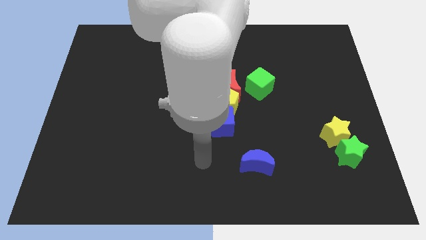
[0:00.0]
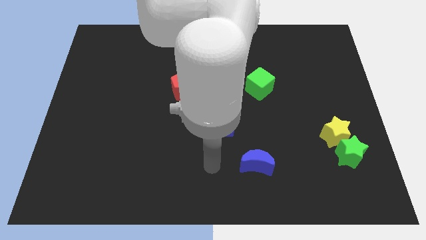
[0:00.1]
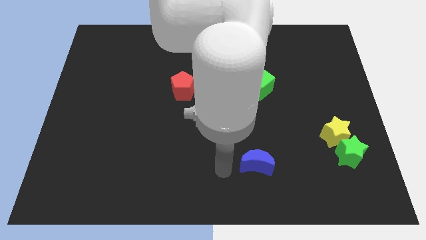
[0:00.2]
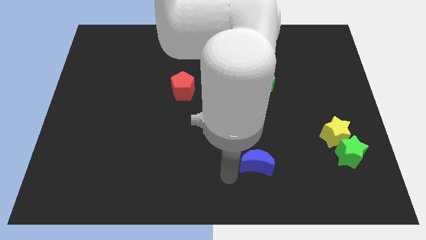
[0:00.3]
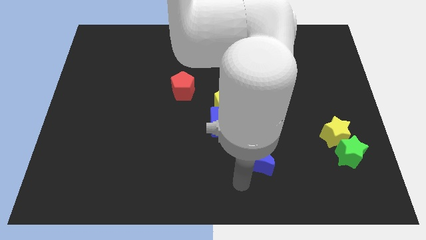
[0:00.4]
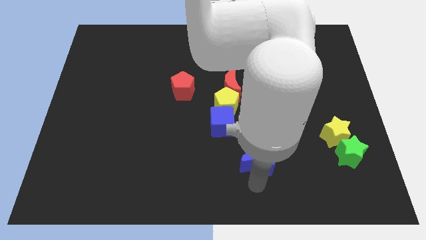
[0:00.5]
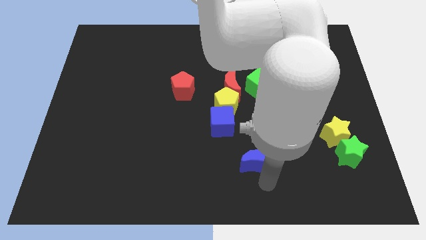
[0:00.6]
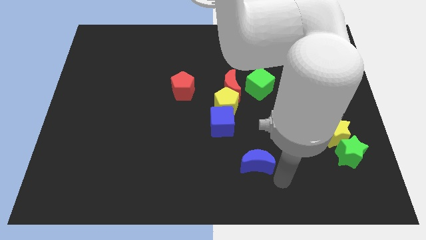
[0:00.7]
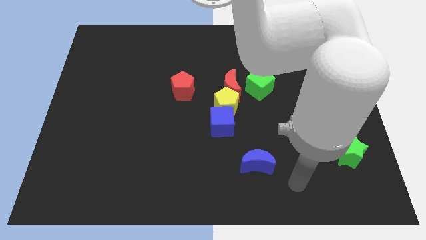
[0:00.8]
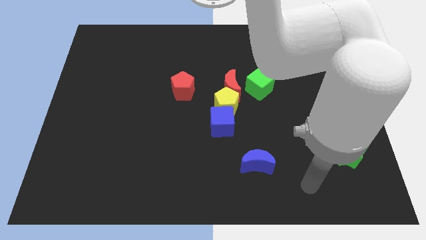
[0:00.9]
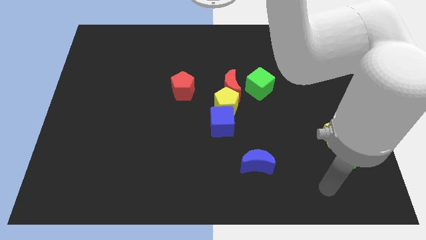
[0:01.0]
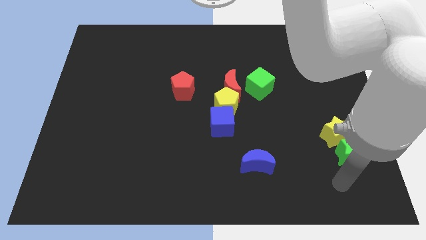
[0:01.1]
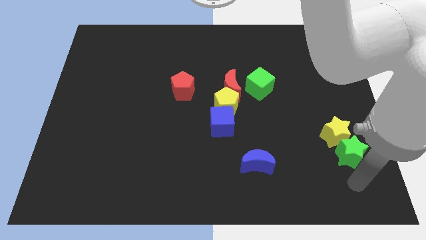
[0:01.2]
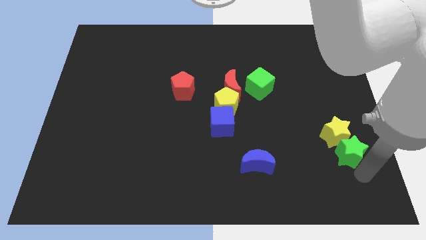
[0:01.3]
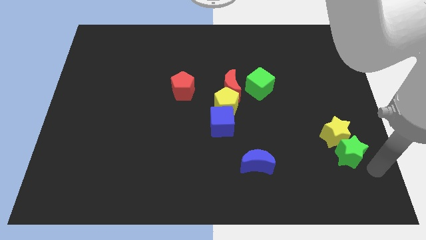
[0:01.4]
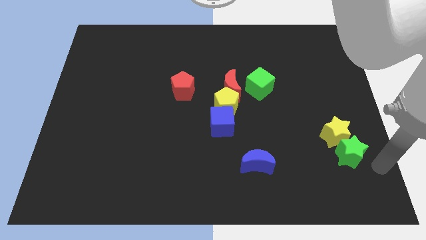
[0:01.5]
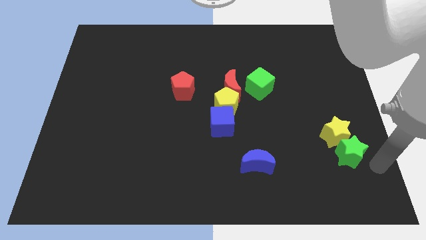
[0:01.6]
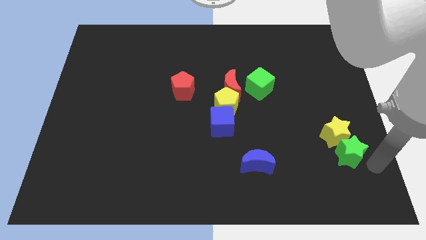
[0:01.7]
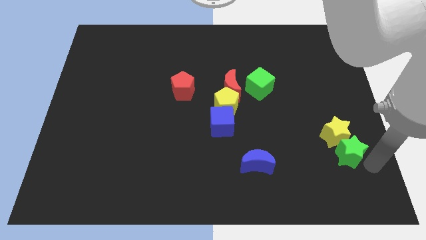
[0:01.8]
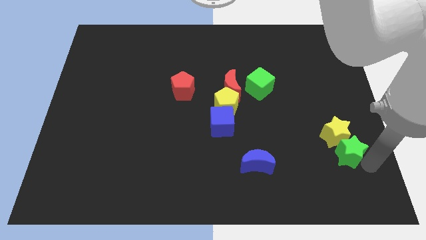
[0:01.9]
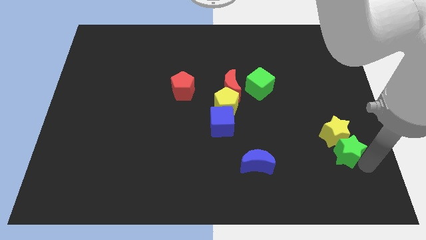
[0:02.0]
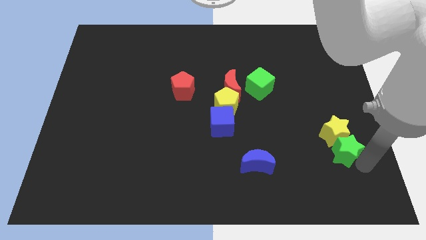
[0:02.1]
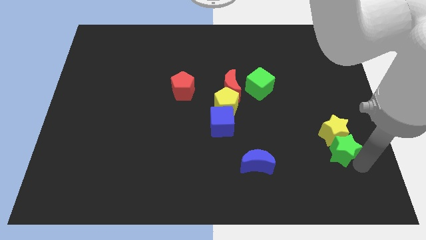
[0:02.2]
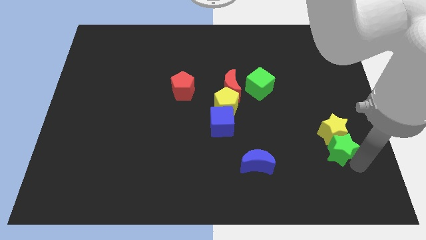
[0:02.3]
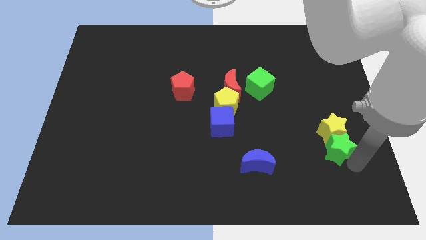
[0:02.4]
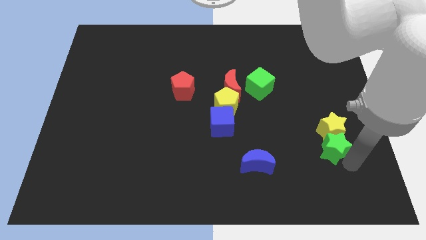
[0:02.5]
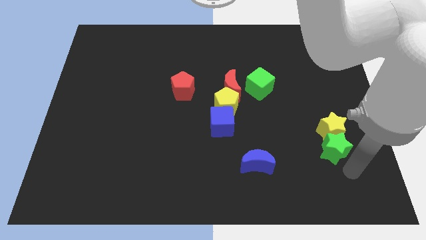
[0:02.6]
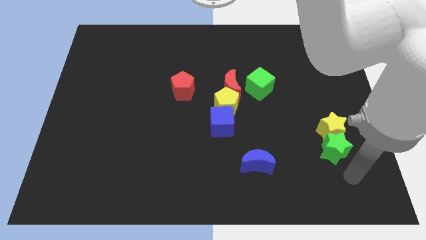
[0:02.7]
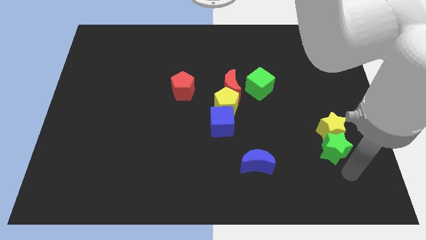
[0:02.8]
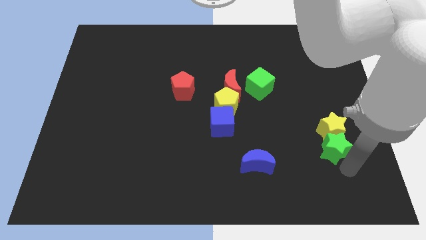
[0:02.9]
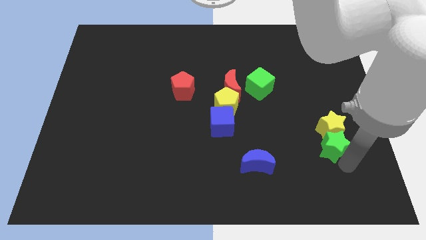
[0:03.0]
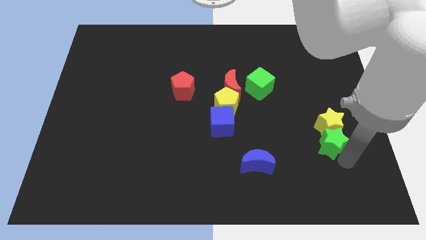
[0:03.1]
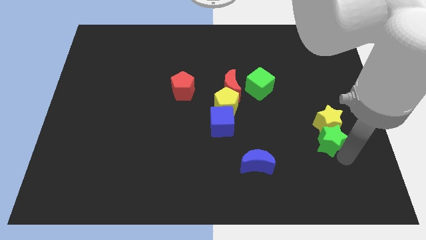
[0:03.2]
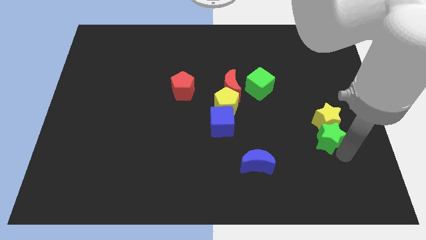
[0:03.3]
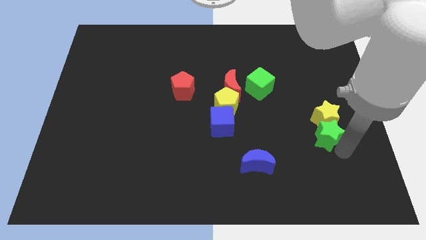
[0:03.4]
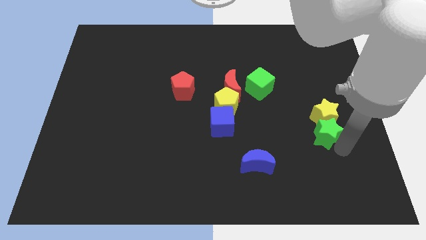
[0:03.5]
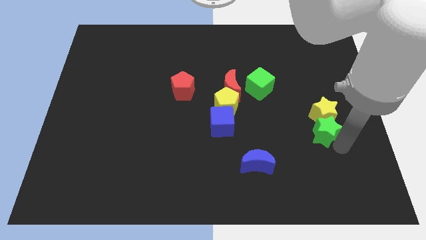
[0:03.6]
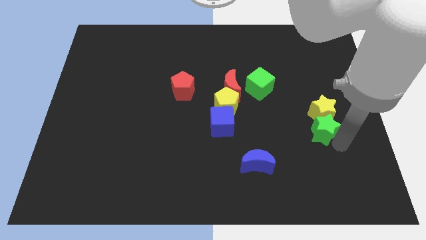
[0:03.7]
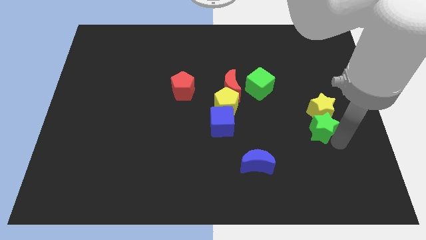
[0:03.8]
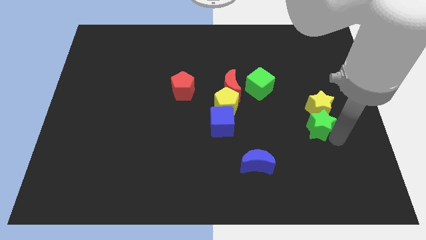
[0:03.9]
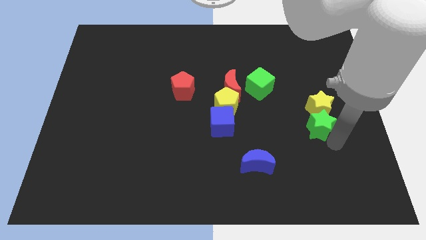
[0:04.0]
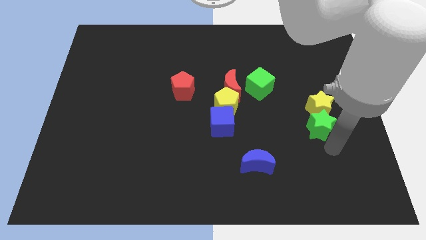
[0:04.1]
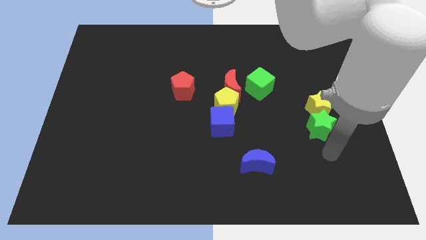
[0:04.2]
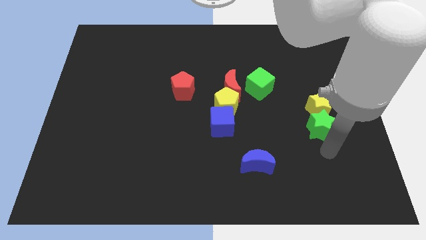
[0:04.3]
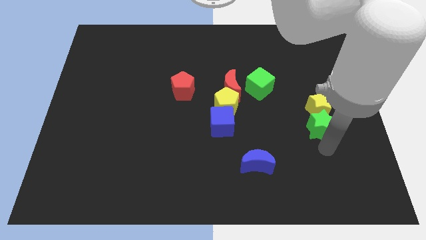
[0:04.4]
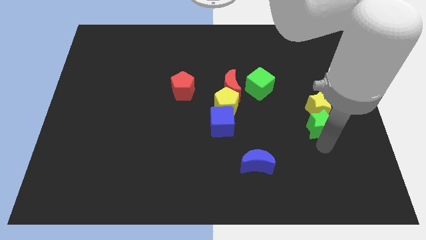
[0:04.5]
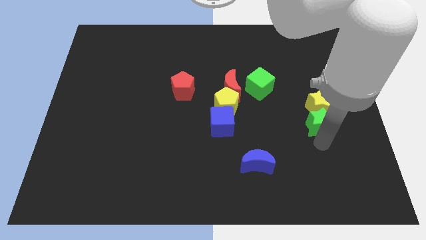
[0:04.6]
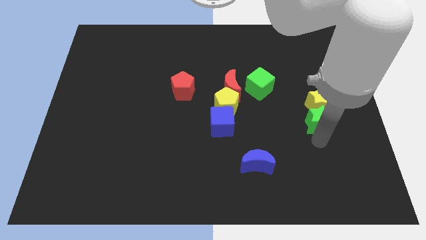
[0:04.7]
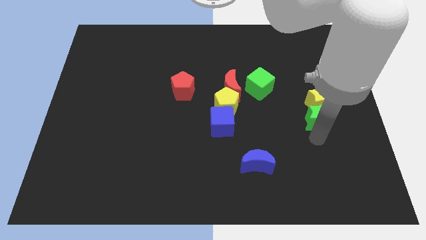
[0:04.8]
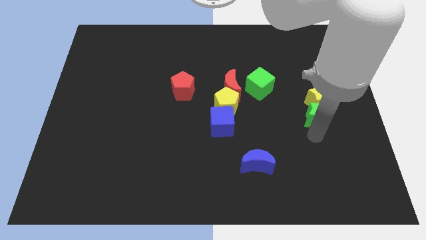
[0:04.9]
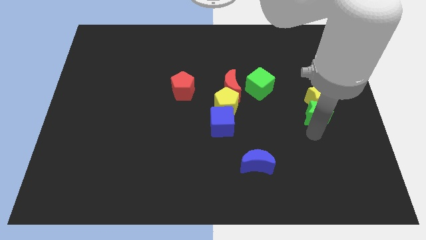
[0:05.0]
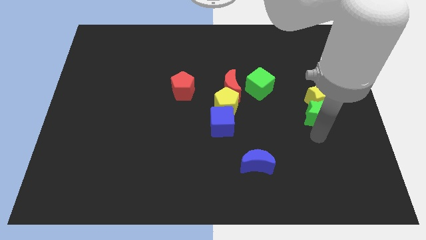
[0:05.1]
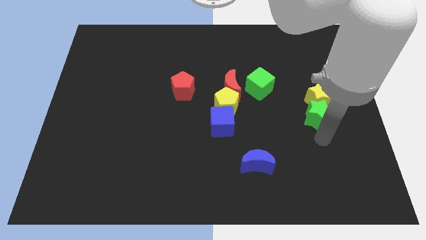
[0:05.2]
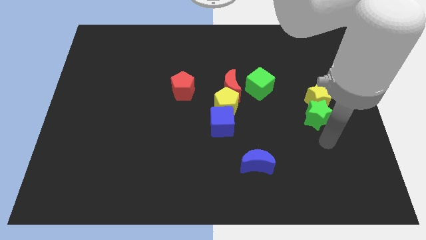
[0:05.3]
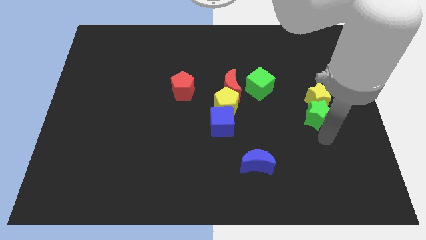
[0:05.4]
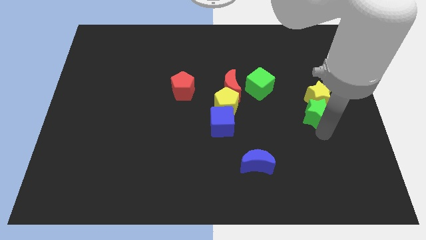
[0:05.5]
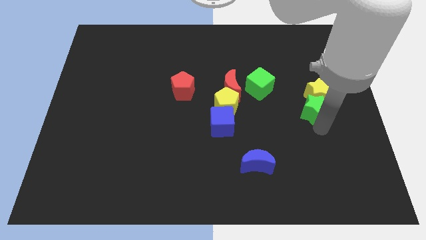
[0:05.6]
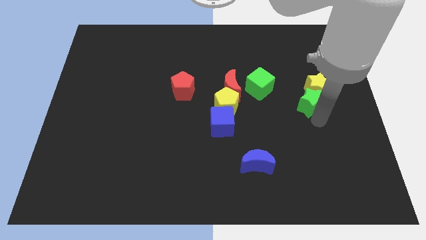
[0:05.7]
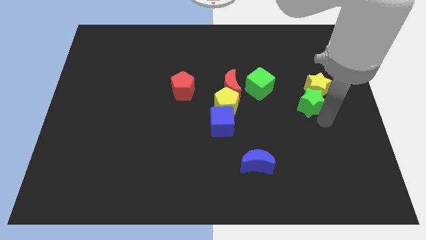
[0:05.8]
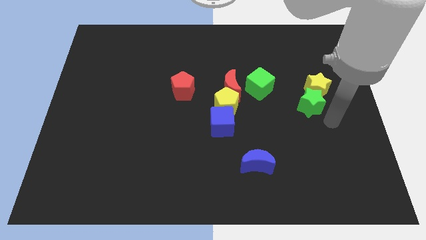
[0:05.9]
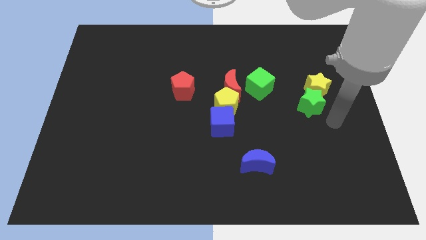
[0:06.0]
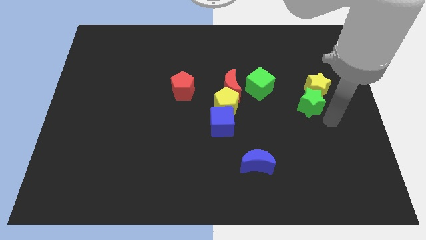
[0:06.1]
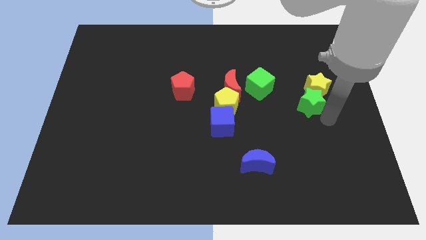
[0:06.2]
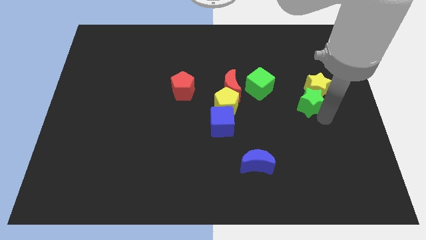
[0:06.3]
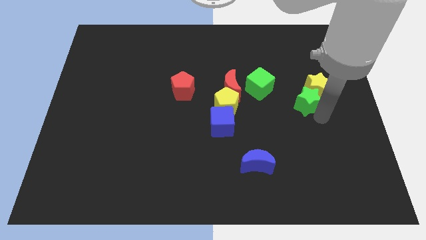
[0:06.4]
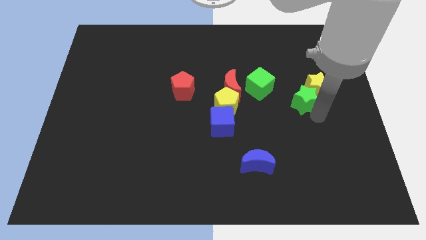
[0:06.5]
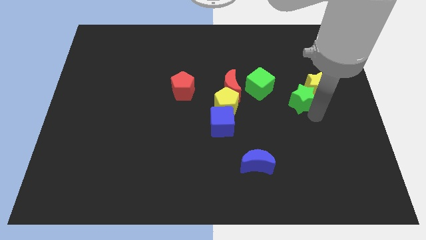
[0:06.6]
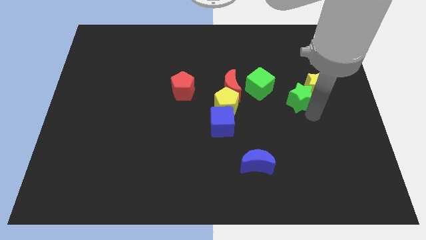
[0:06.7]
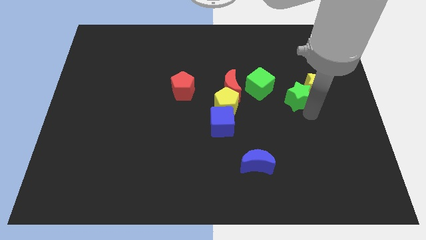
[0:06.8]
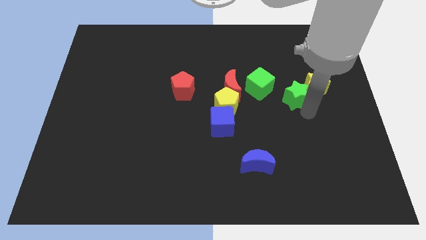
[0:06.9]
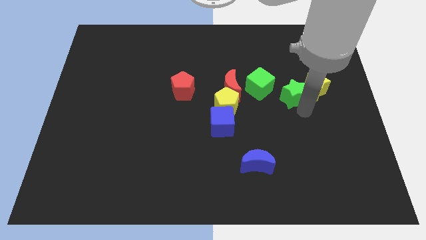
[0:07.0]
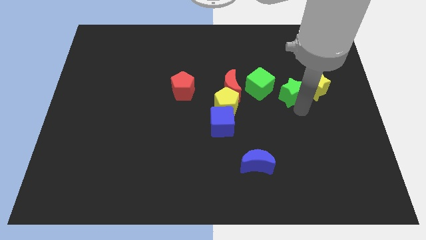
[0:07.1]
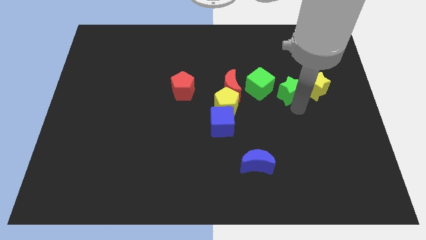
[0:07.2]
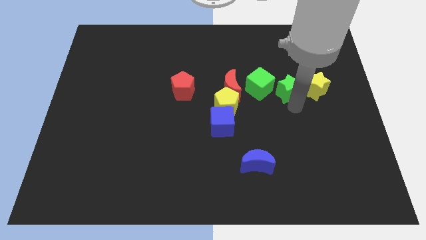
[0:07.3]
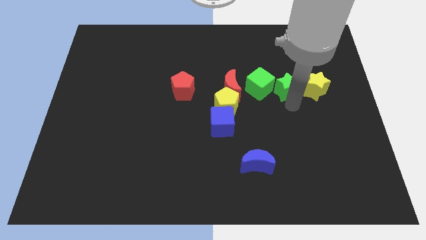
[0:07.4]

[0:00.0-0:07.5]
slide the green star upwards and left

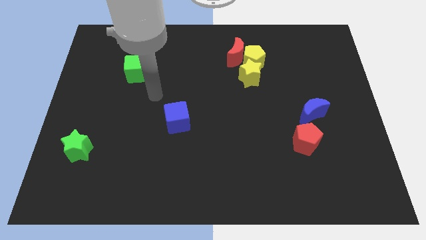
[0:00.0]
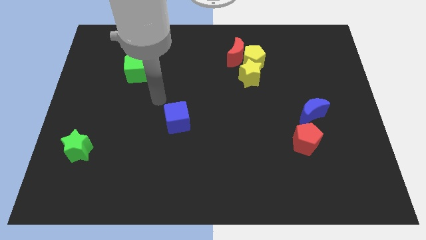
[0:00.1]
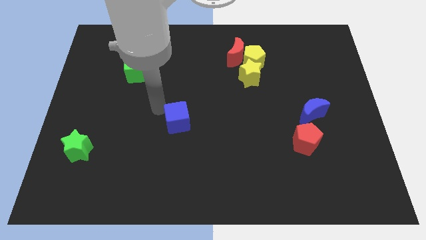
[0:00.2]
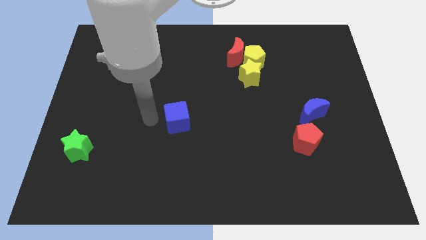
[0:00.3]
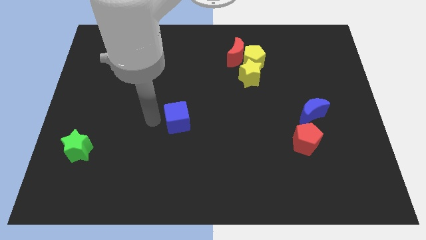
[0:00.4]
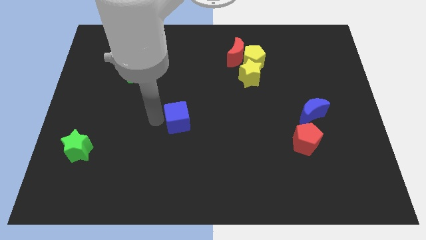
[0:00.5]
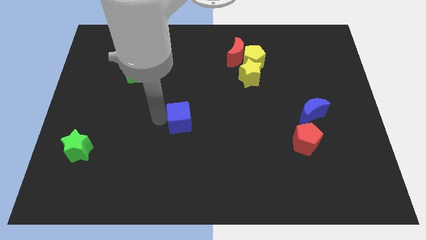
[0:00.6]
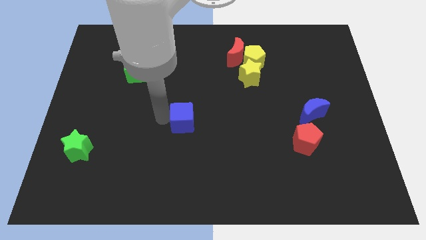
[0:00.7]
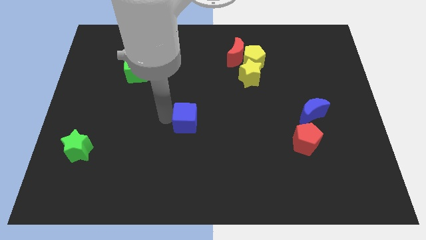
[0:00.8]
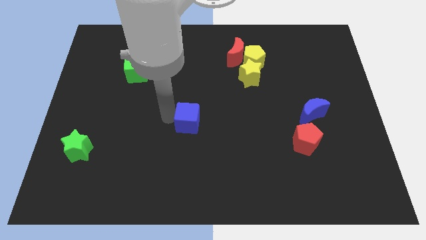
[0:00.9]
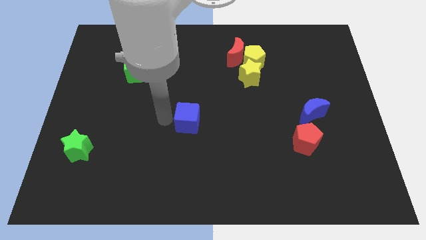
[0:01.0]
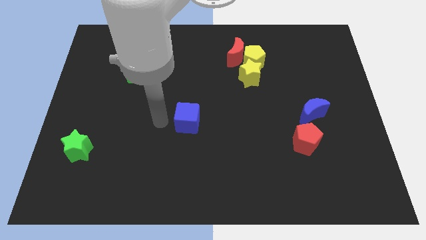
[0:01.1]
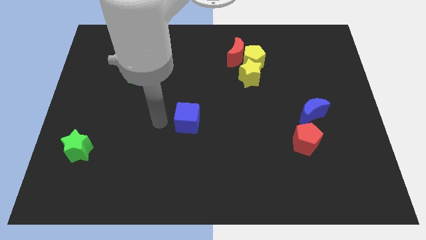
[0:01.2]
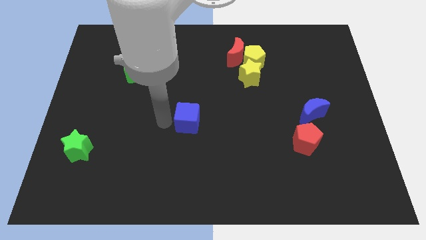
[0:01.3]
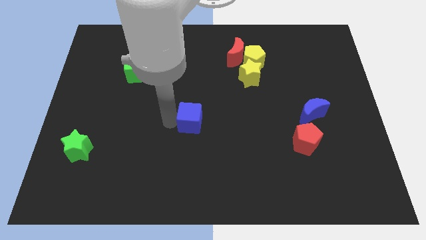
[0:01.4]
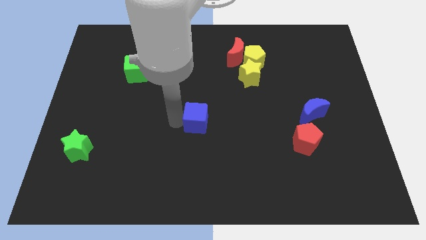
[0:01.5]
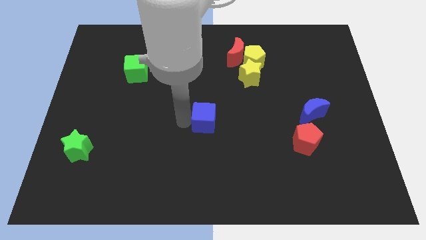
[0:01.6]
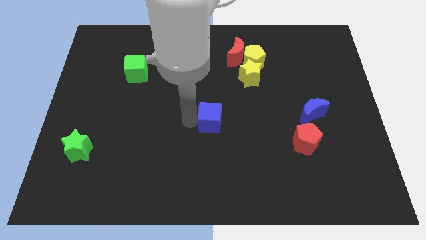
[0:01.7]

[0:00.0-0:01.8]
move the blue cube a little bit right
